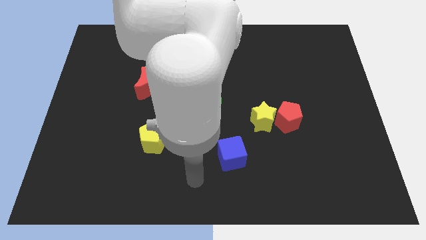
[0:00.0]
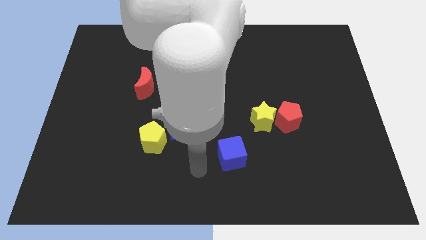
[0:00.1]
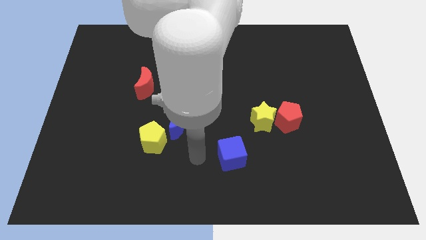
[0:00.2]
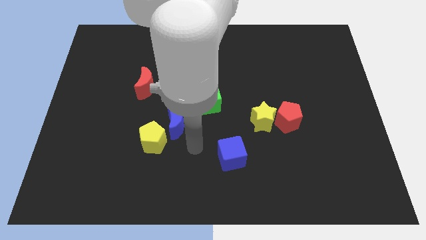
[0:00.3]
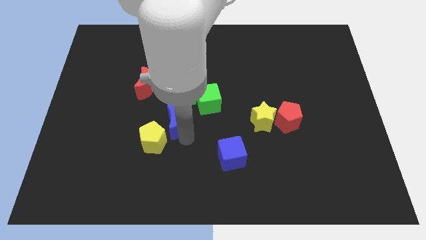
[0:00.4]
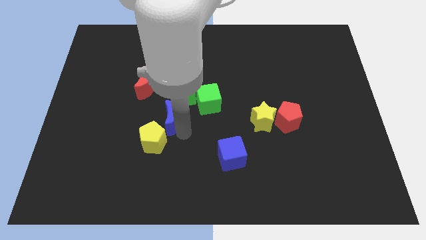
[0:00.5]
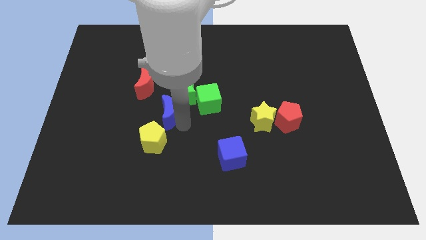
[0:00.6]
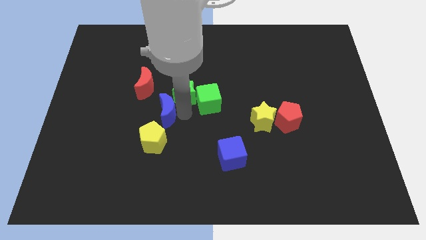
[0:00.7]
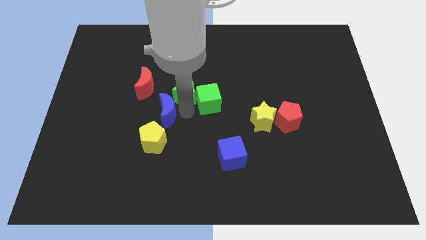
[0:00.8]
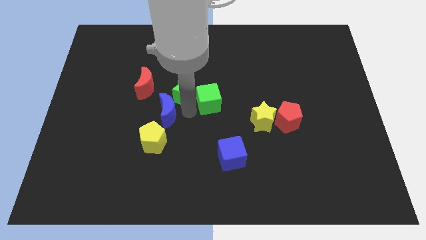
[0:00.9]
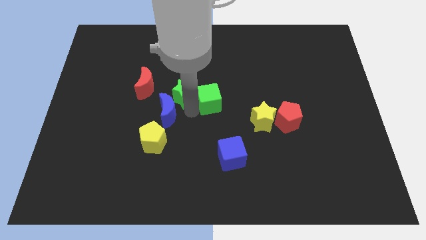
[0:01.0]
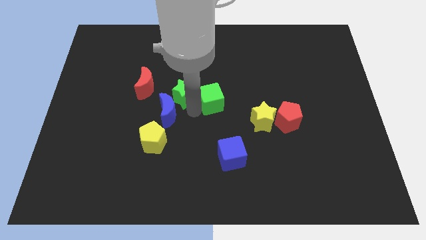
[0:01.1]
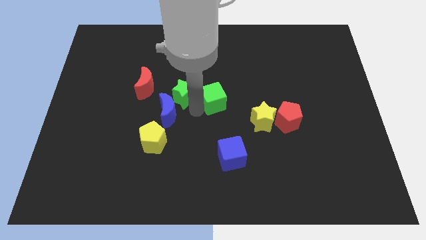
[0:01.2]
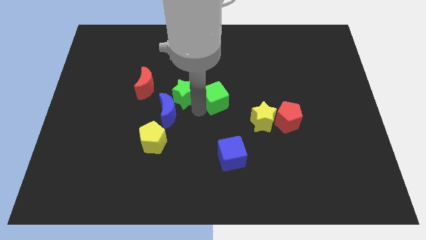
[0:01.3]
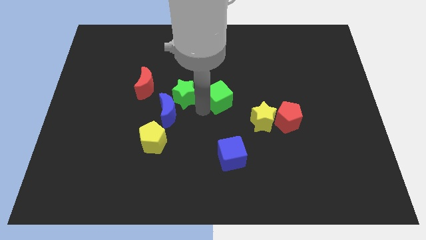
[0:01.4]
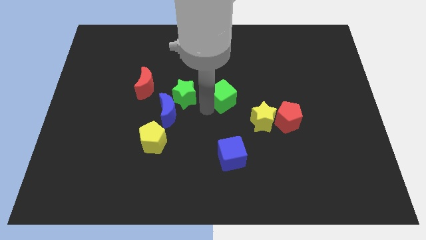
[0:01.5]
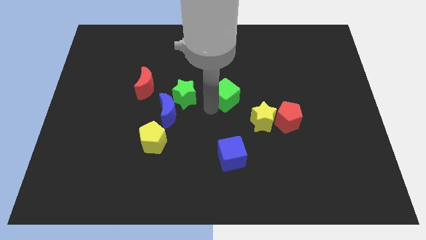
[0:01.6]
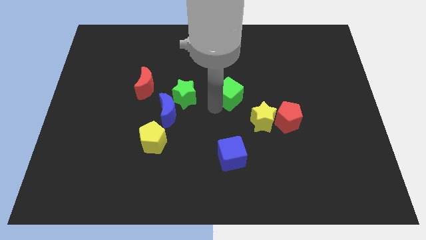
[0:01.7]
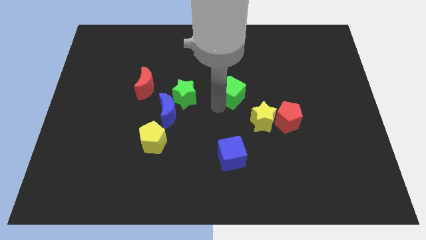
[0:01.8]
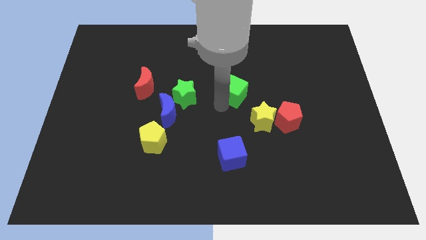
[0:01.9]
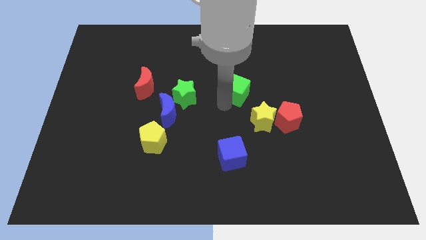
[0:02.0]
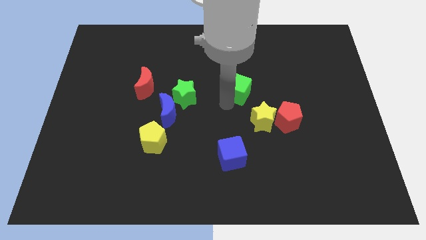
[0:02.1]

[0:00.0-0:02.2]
slightly slide the green cube up and right

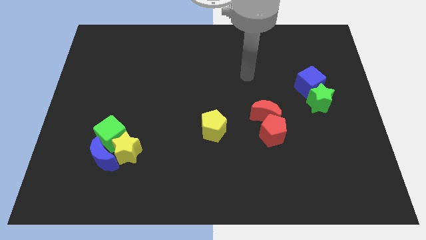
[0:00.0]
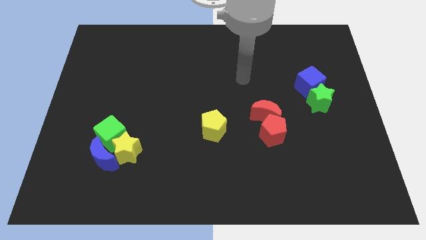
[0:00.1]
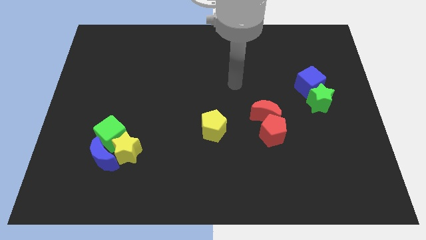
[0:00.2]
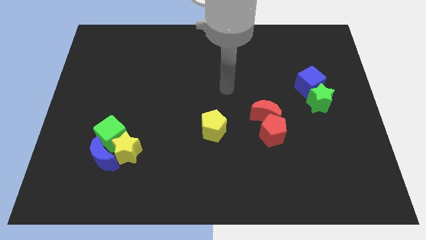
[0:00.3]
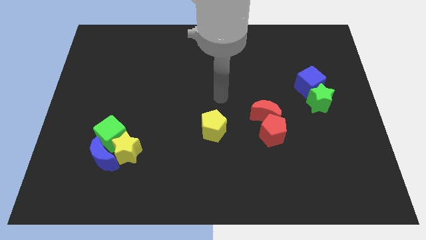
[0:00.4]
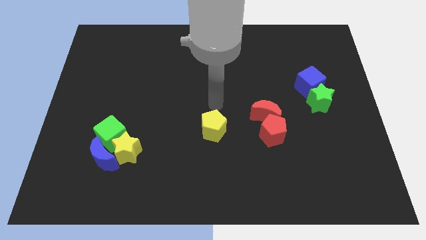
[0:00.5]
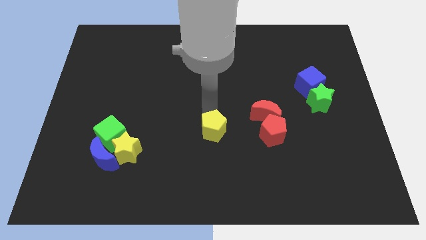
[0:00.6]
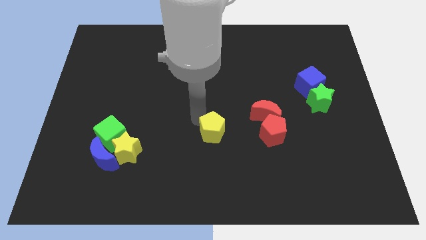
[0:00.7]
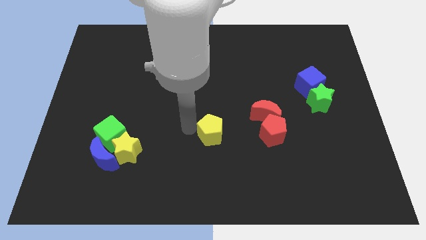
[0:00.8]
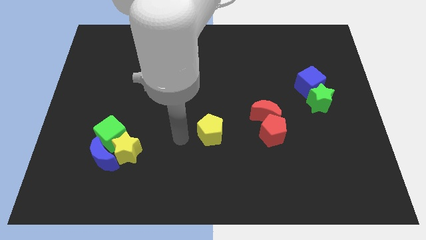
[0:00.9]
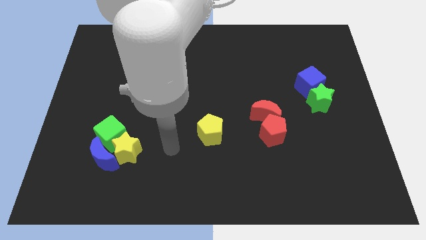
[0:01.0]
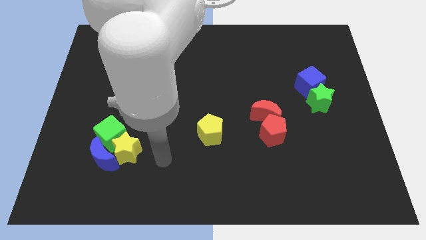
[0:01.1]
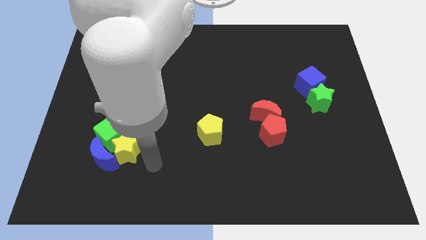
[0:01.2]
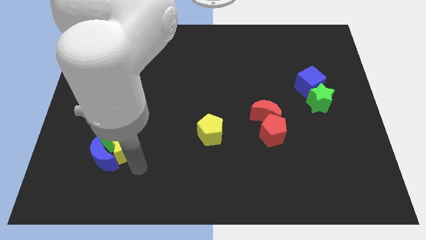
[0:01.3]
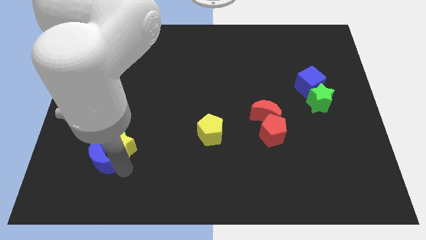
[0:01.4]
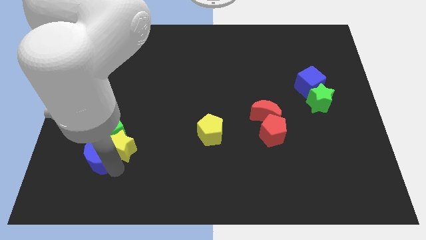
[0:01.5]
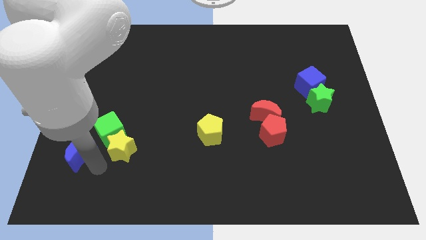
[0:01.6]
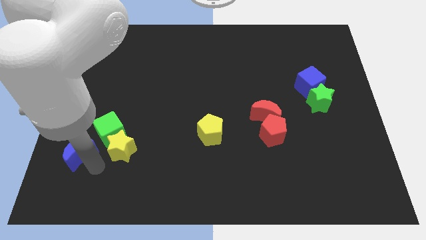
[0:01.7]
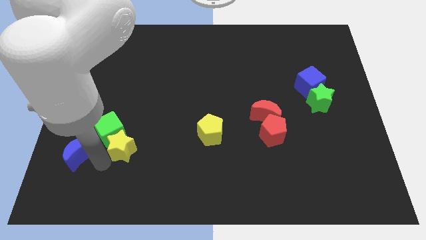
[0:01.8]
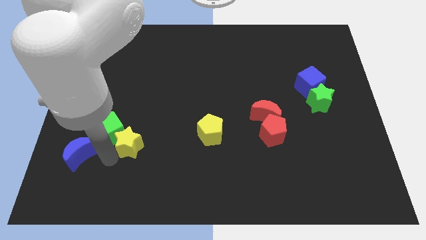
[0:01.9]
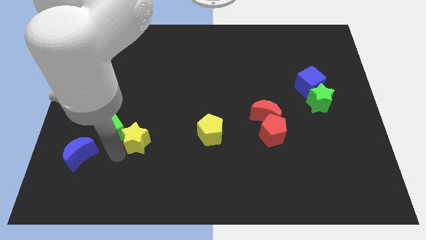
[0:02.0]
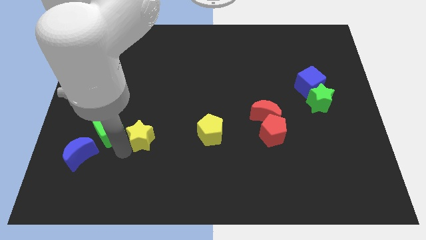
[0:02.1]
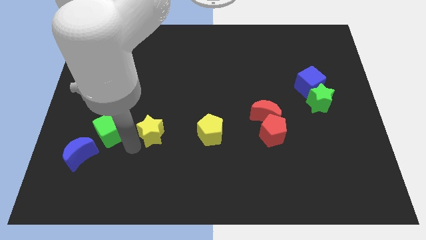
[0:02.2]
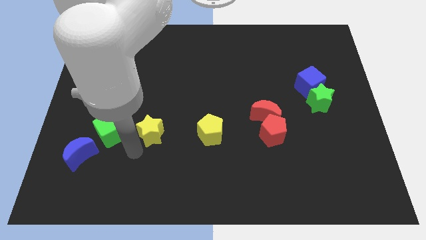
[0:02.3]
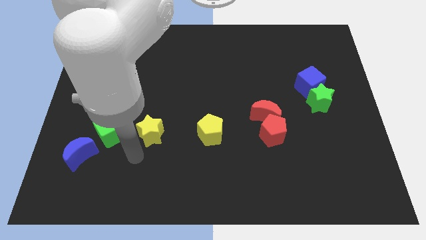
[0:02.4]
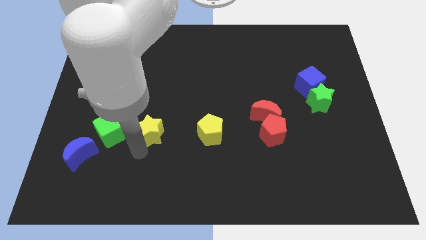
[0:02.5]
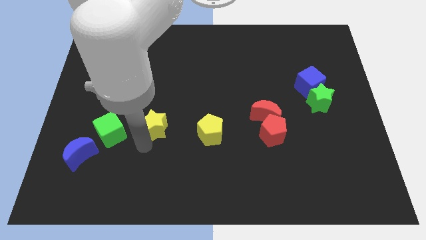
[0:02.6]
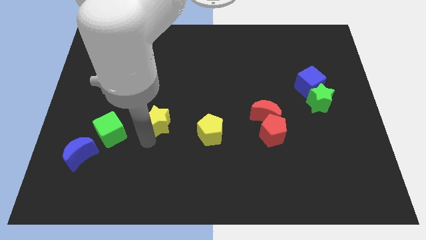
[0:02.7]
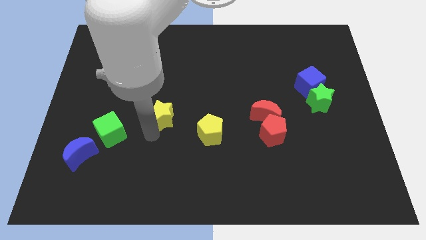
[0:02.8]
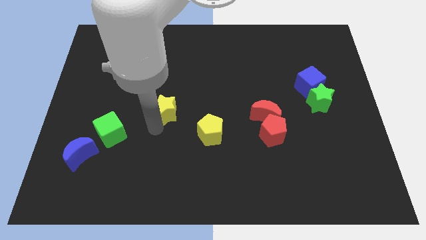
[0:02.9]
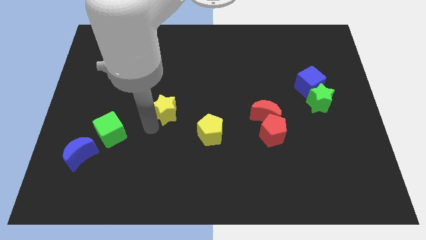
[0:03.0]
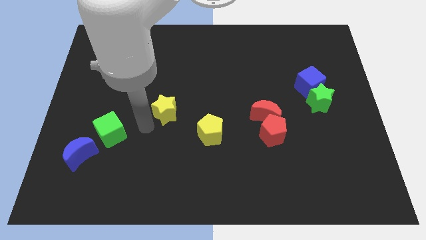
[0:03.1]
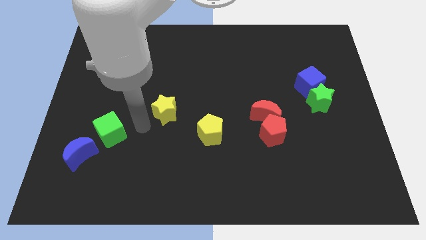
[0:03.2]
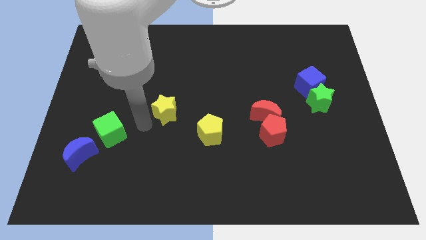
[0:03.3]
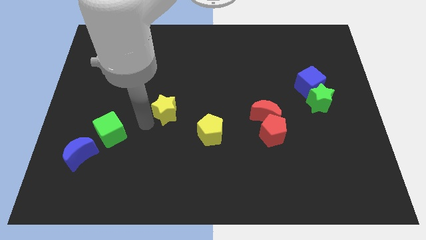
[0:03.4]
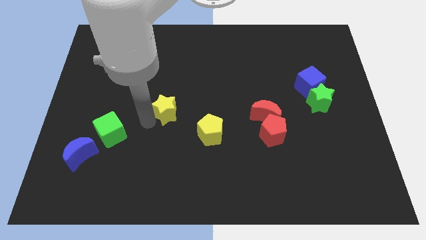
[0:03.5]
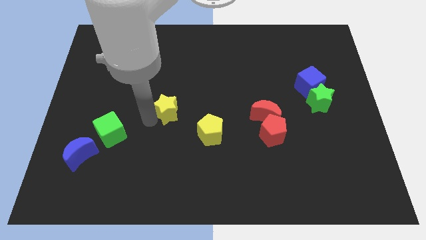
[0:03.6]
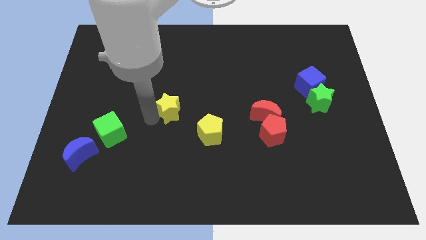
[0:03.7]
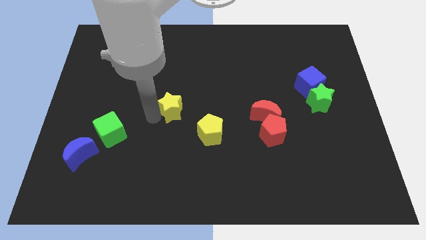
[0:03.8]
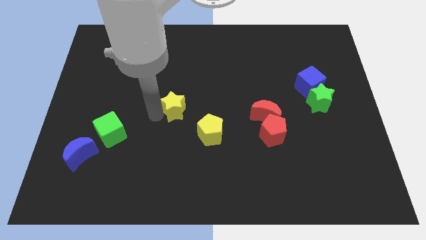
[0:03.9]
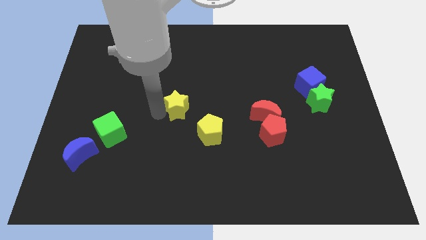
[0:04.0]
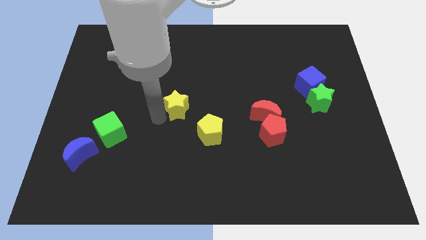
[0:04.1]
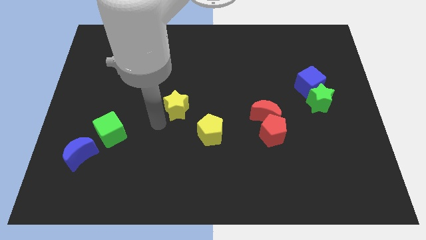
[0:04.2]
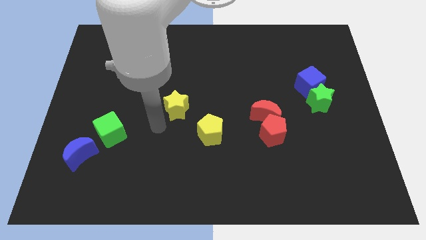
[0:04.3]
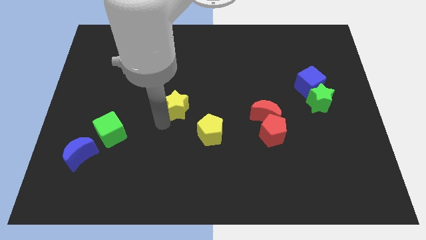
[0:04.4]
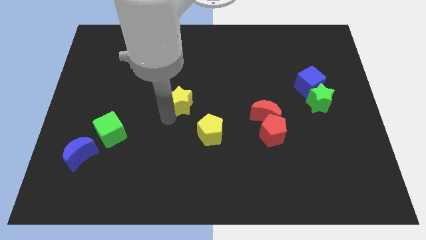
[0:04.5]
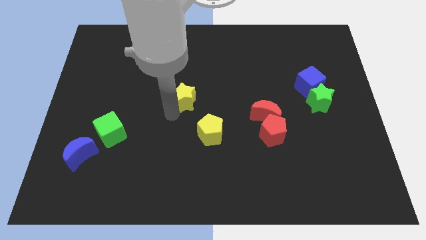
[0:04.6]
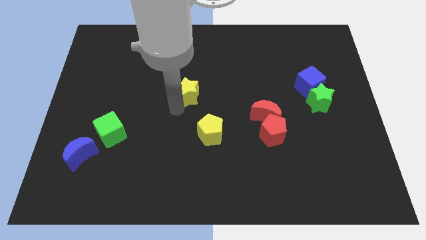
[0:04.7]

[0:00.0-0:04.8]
slide the yellow star upwards and right

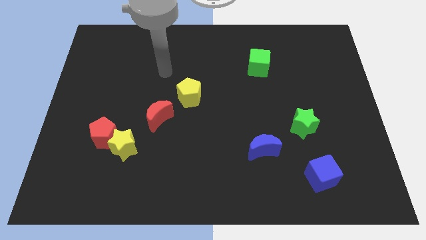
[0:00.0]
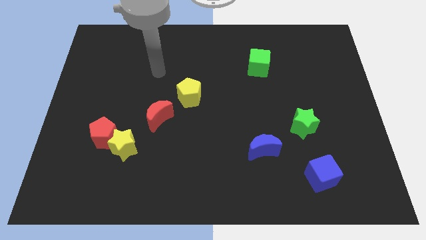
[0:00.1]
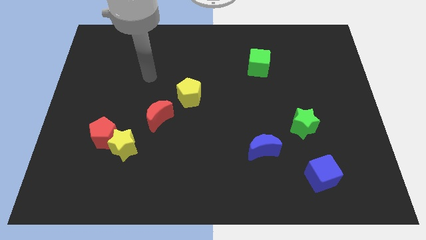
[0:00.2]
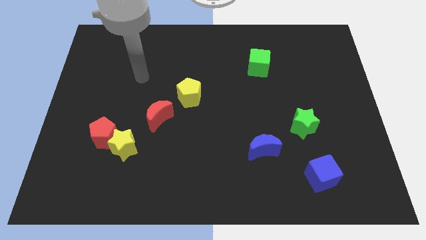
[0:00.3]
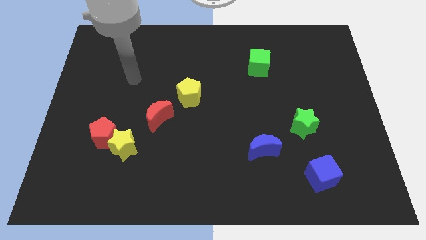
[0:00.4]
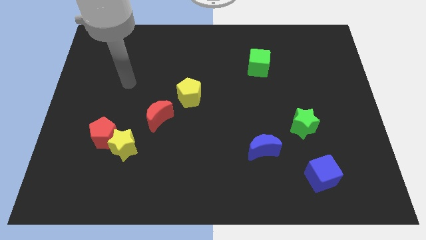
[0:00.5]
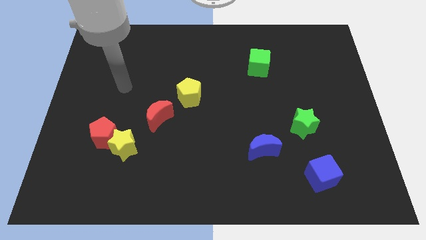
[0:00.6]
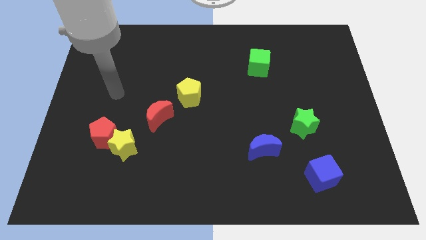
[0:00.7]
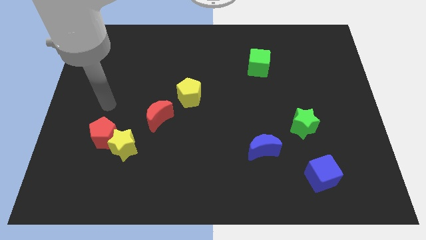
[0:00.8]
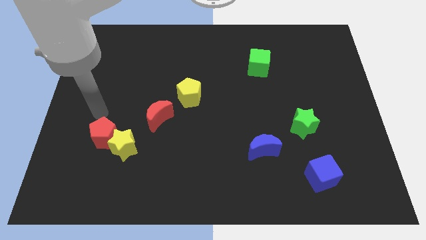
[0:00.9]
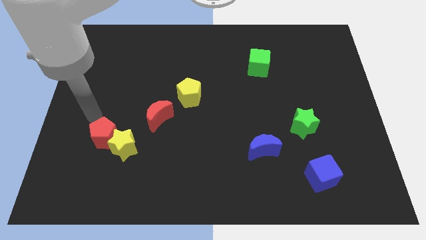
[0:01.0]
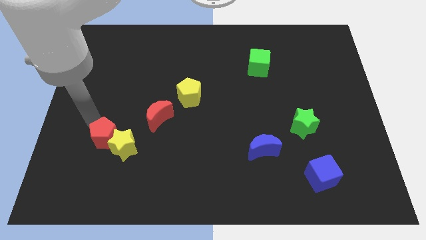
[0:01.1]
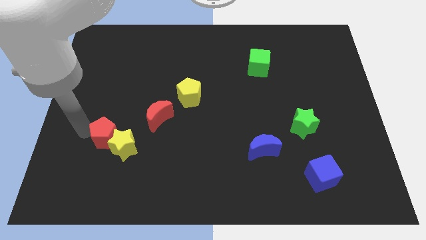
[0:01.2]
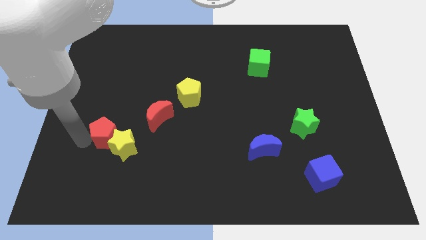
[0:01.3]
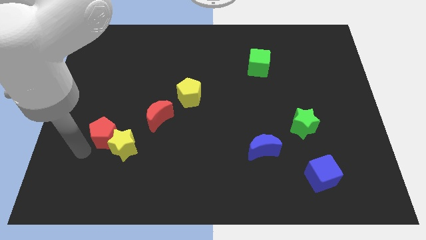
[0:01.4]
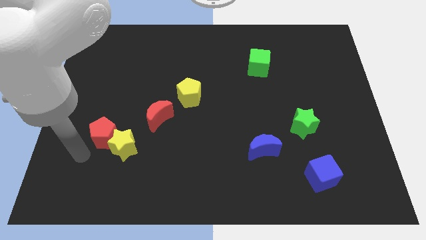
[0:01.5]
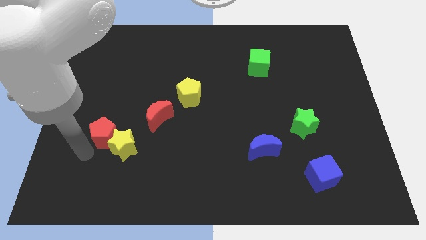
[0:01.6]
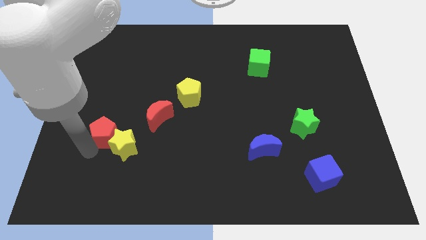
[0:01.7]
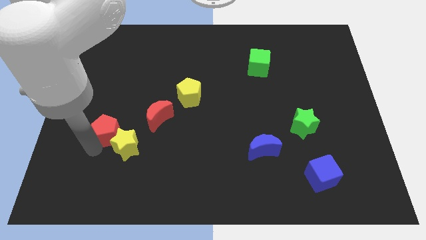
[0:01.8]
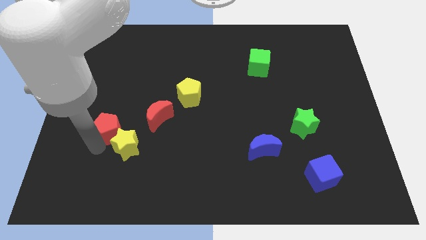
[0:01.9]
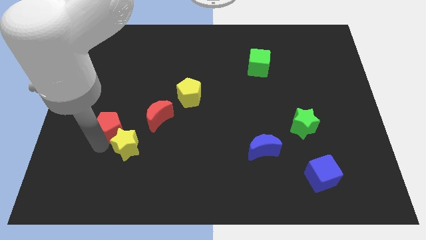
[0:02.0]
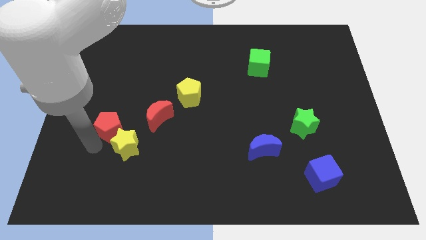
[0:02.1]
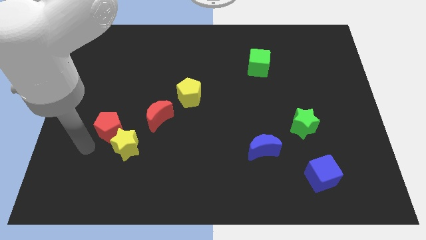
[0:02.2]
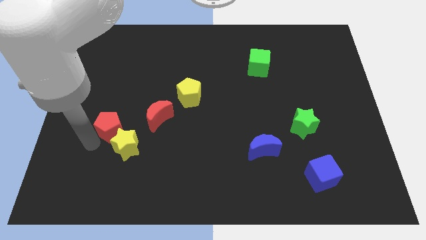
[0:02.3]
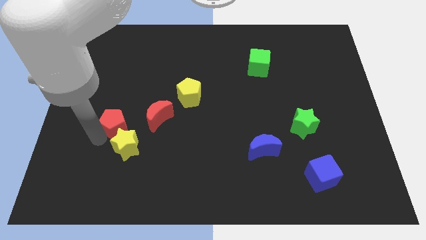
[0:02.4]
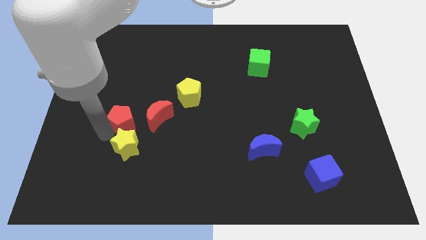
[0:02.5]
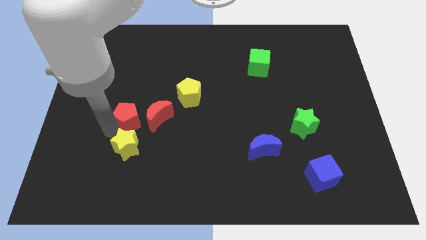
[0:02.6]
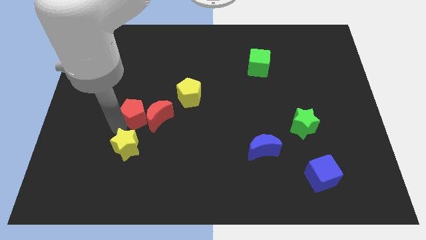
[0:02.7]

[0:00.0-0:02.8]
move the red pentagon a little up and to the right
